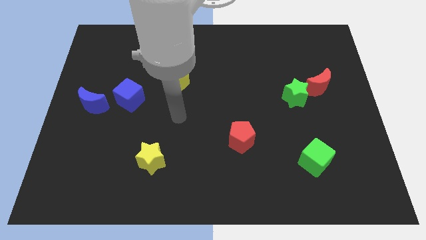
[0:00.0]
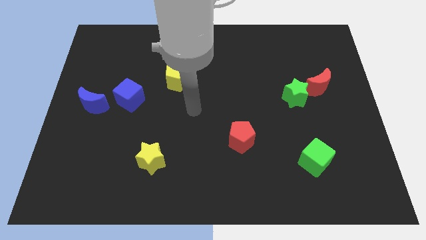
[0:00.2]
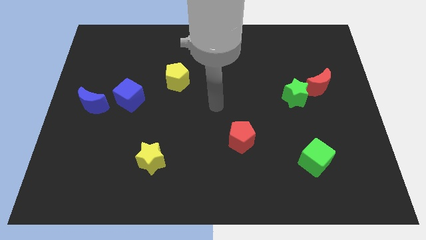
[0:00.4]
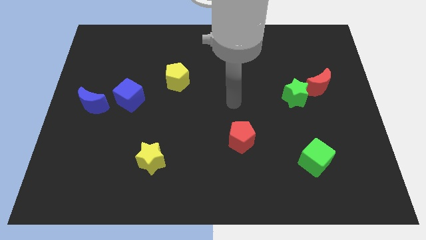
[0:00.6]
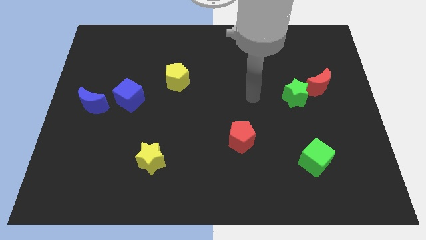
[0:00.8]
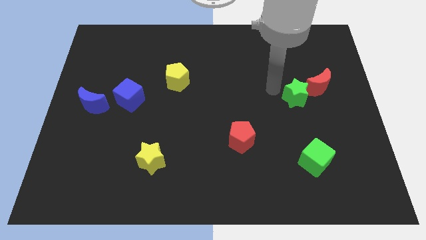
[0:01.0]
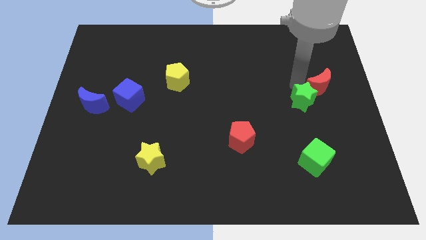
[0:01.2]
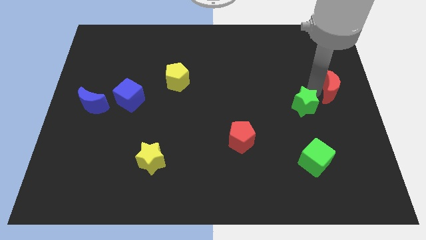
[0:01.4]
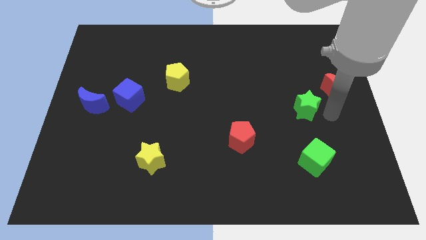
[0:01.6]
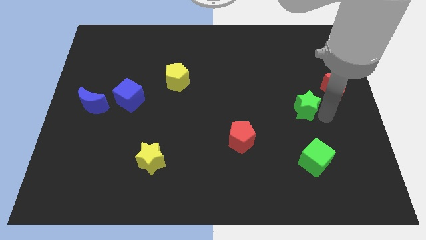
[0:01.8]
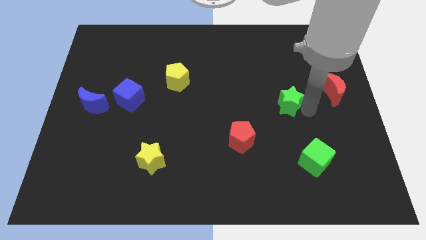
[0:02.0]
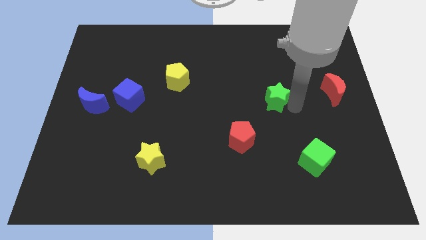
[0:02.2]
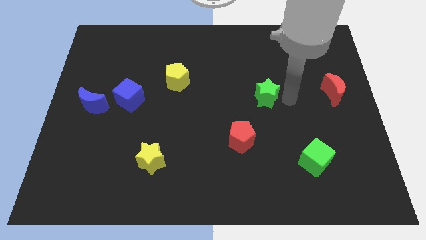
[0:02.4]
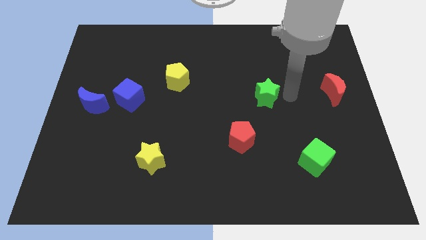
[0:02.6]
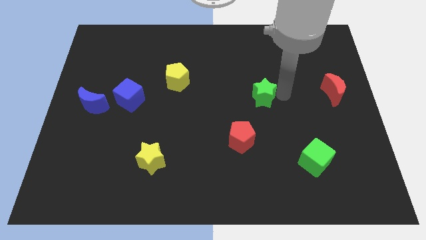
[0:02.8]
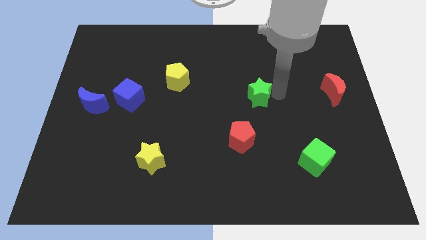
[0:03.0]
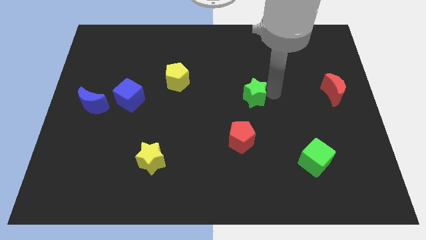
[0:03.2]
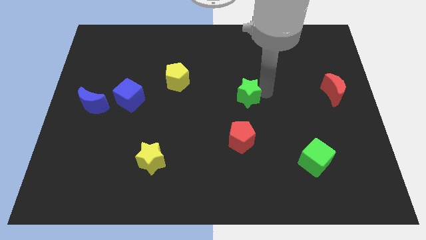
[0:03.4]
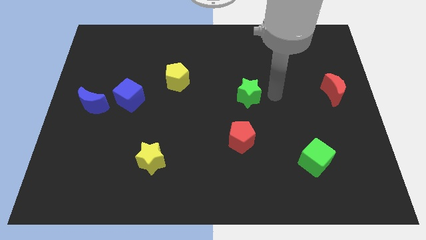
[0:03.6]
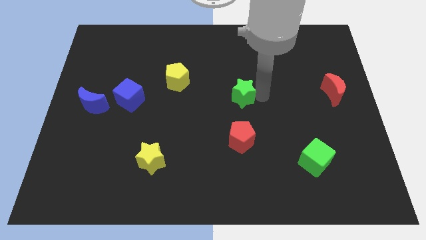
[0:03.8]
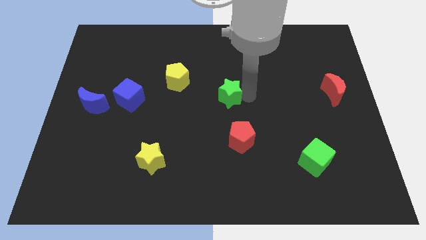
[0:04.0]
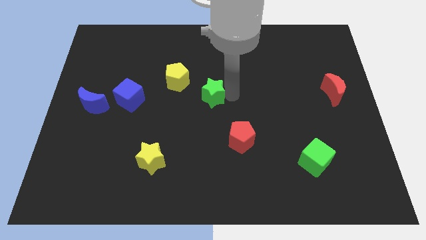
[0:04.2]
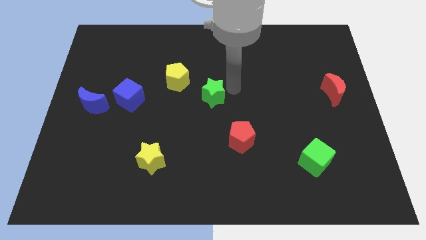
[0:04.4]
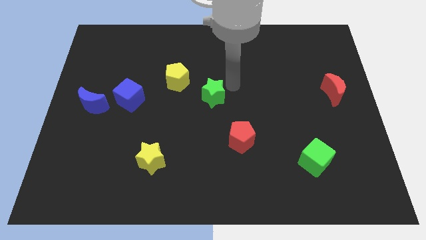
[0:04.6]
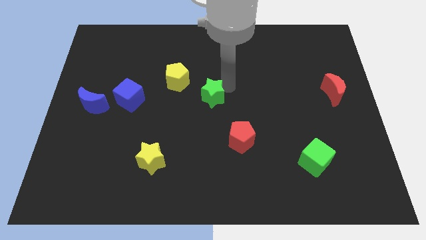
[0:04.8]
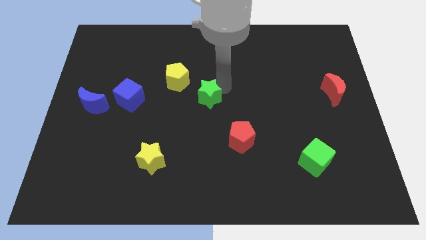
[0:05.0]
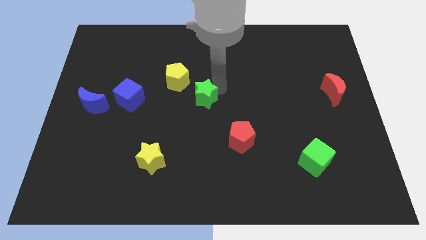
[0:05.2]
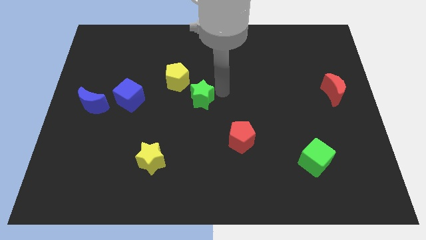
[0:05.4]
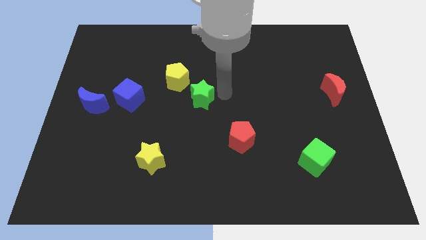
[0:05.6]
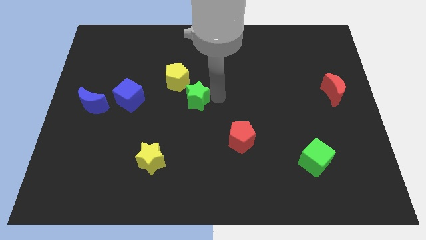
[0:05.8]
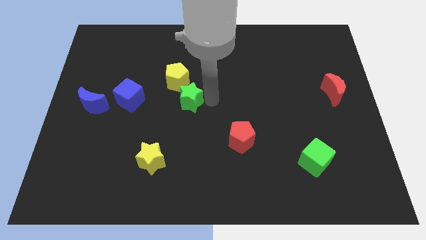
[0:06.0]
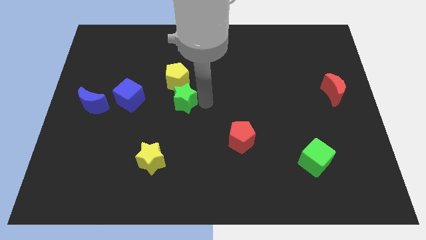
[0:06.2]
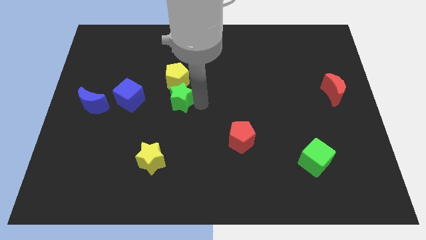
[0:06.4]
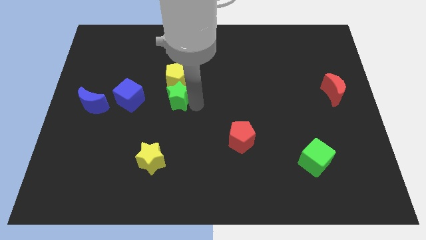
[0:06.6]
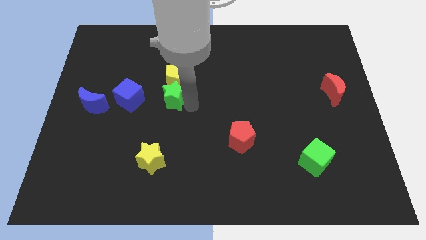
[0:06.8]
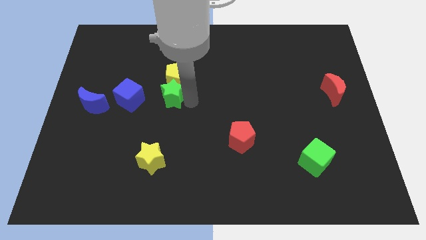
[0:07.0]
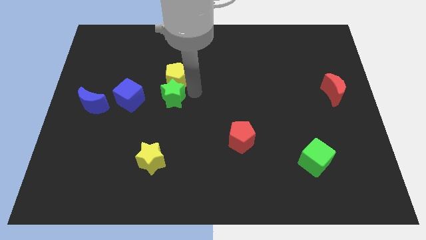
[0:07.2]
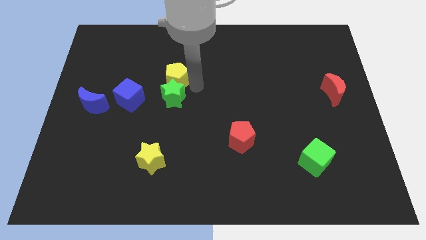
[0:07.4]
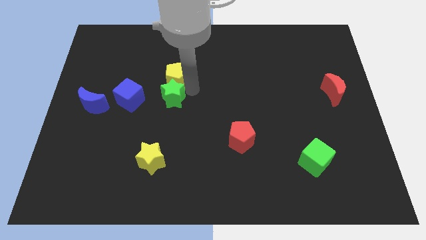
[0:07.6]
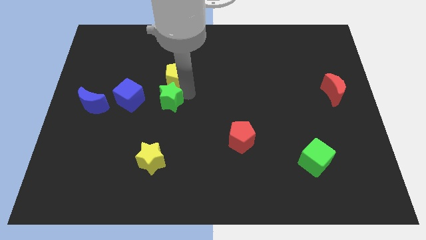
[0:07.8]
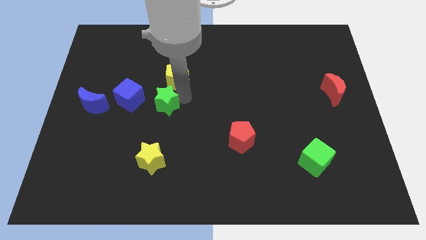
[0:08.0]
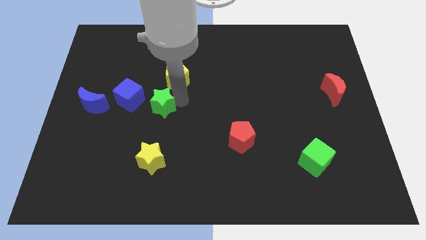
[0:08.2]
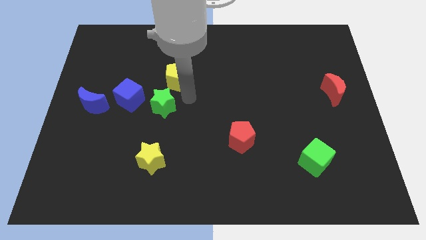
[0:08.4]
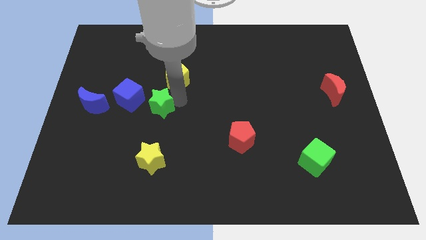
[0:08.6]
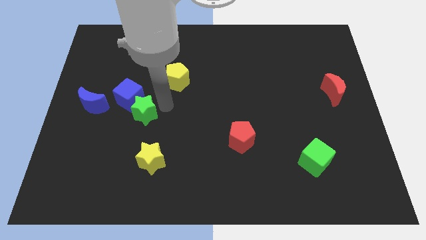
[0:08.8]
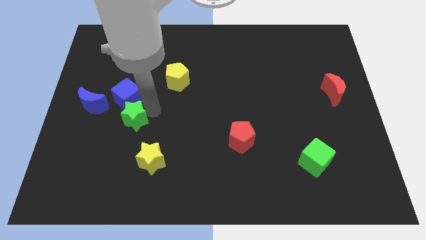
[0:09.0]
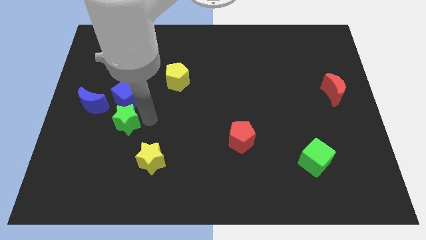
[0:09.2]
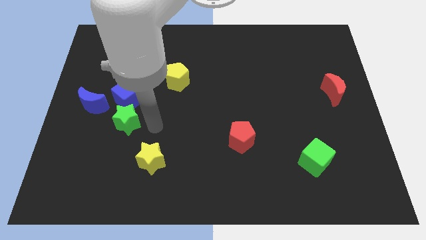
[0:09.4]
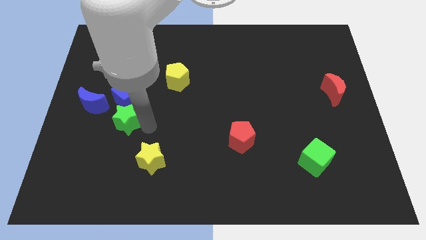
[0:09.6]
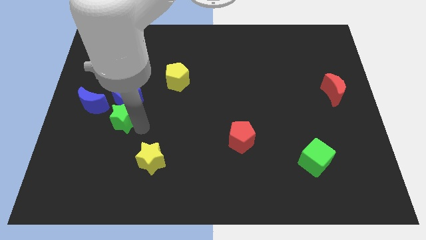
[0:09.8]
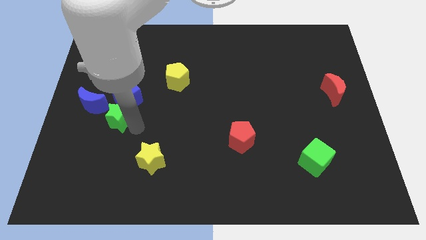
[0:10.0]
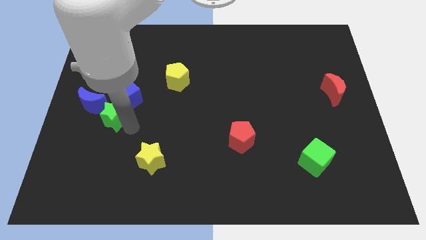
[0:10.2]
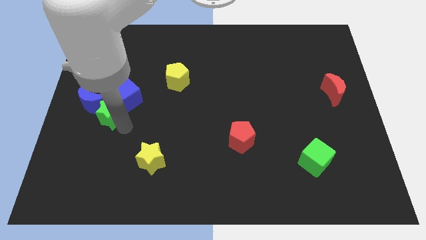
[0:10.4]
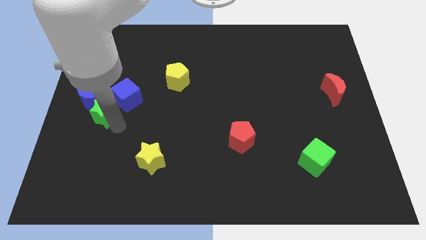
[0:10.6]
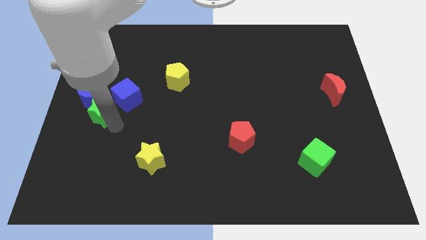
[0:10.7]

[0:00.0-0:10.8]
slide the green star to the left side

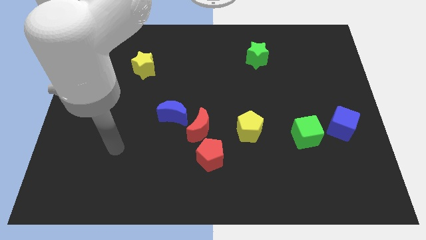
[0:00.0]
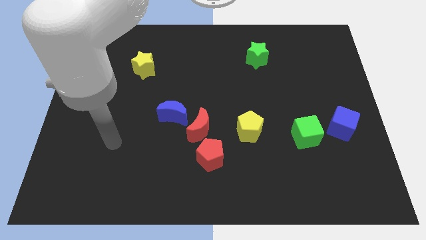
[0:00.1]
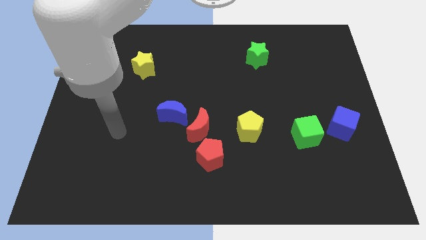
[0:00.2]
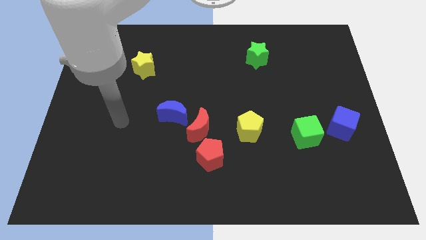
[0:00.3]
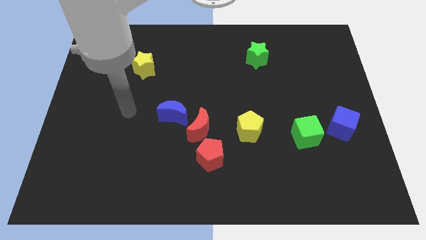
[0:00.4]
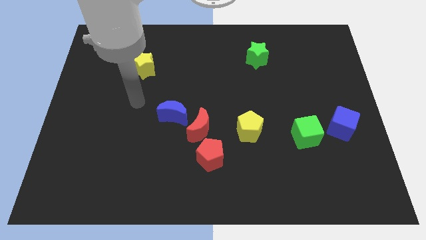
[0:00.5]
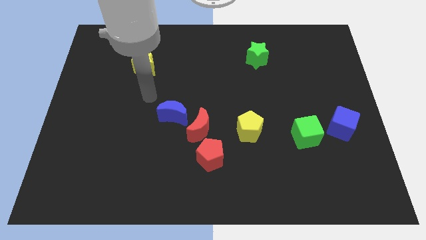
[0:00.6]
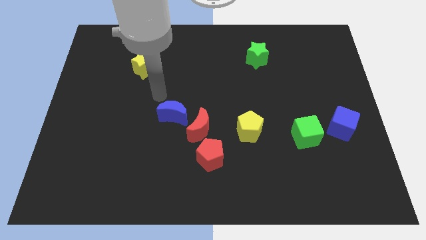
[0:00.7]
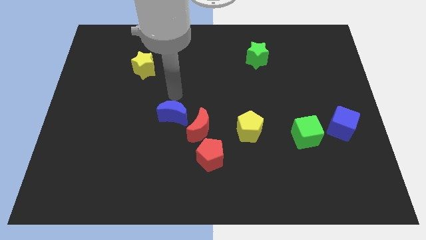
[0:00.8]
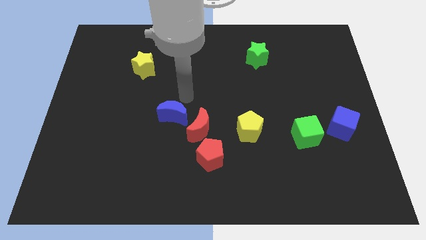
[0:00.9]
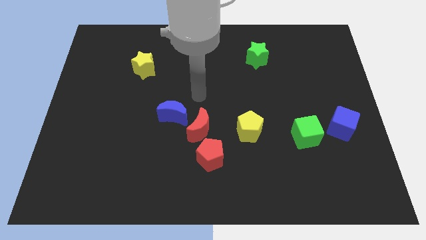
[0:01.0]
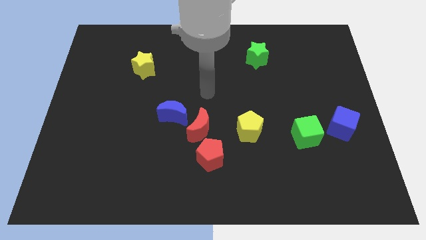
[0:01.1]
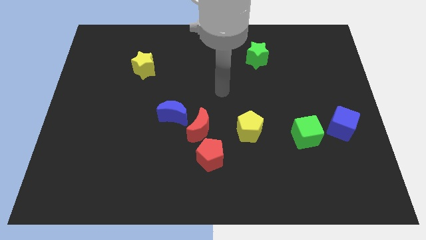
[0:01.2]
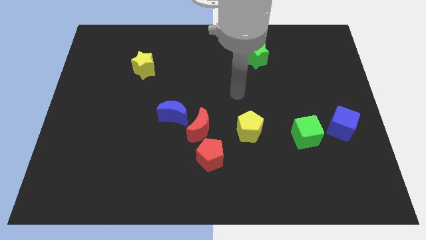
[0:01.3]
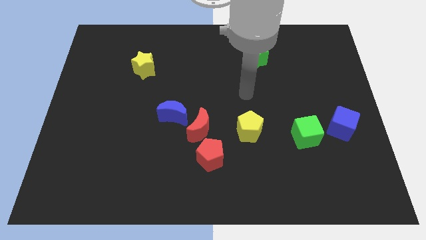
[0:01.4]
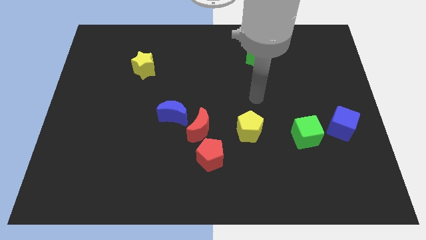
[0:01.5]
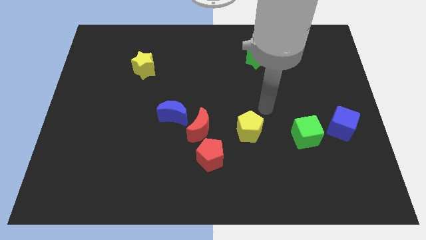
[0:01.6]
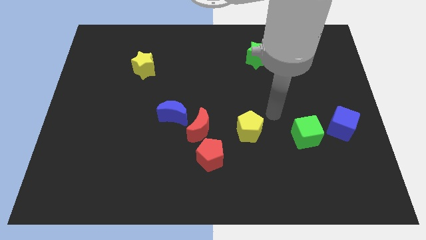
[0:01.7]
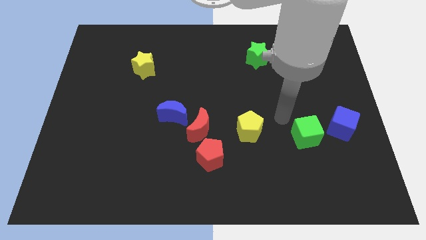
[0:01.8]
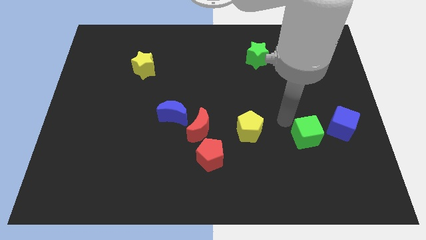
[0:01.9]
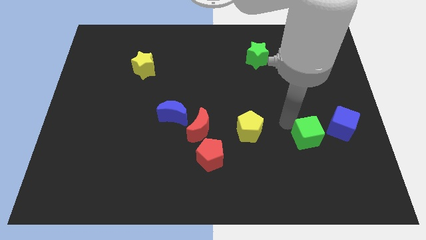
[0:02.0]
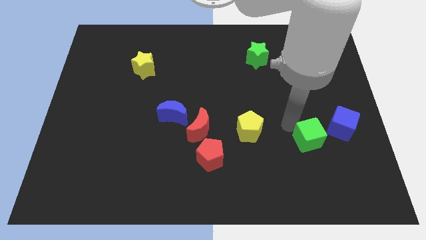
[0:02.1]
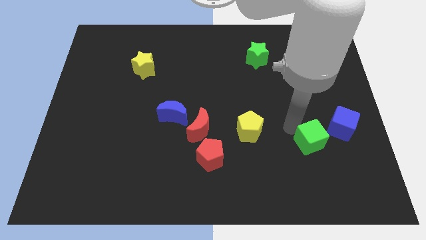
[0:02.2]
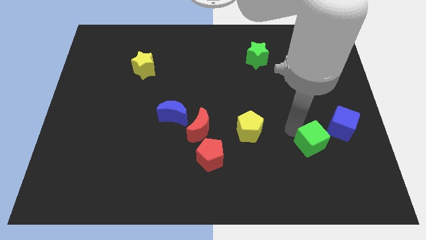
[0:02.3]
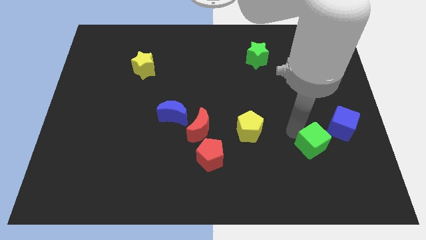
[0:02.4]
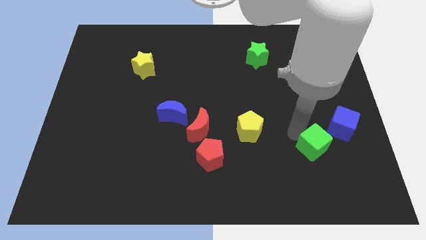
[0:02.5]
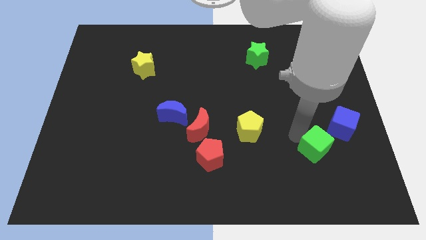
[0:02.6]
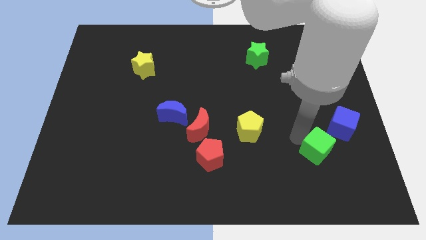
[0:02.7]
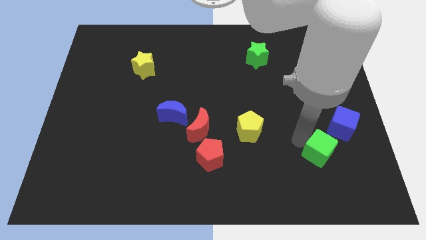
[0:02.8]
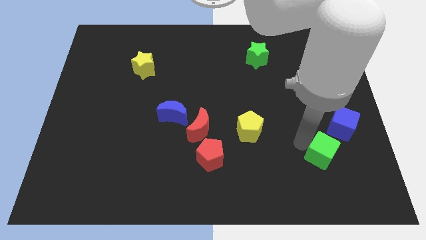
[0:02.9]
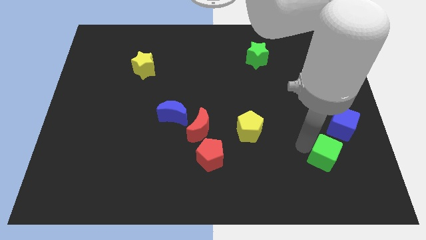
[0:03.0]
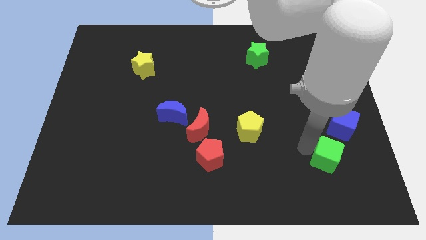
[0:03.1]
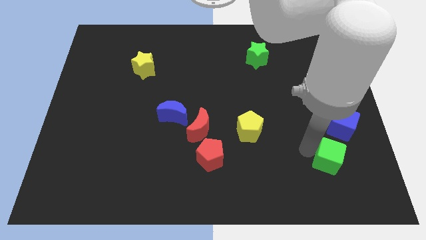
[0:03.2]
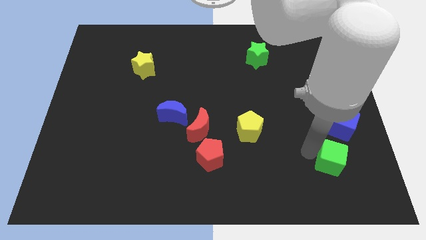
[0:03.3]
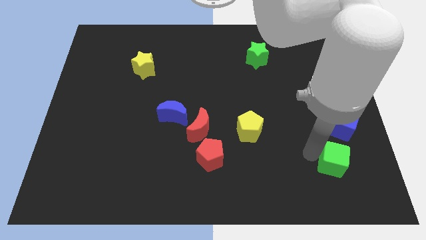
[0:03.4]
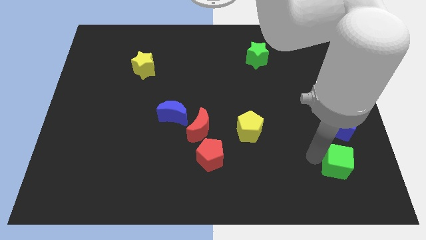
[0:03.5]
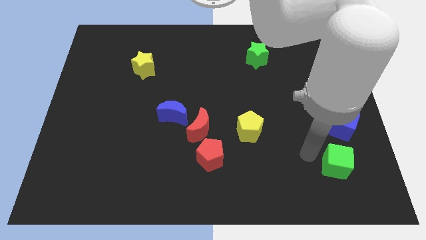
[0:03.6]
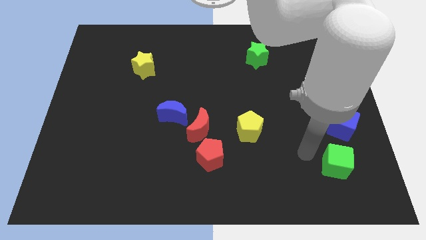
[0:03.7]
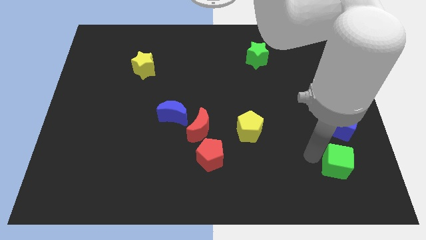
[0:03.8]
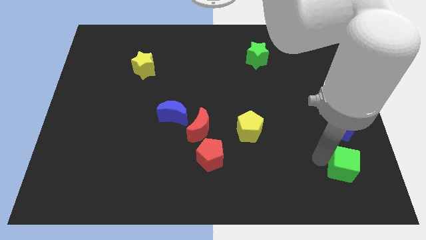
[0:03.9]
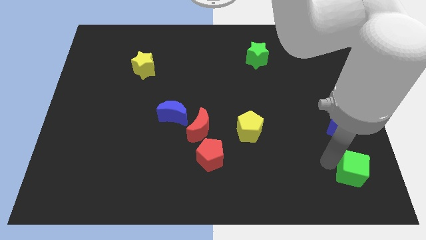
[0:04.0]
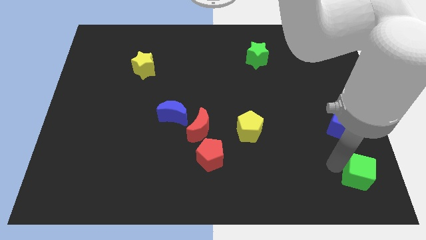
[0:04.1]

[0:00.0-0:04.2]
move the green cube to the bottom right corner
